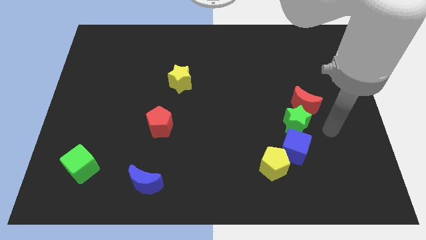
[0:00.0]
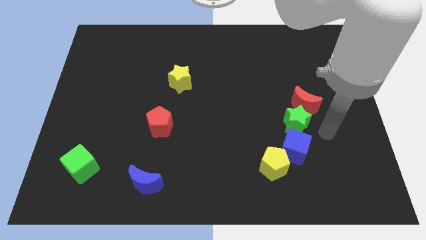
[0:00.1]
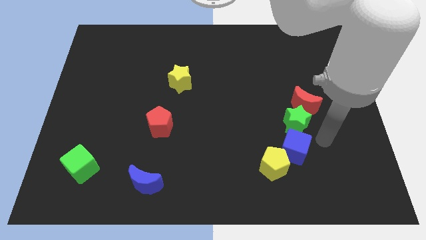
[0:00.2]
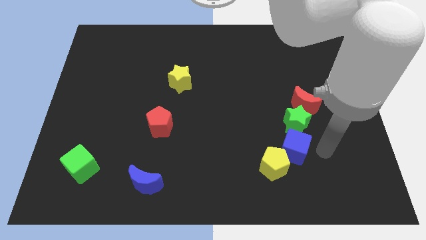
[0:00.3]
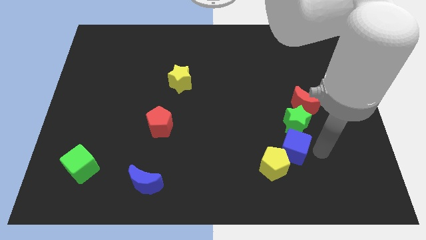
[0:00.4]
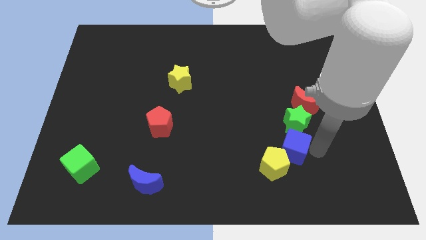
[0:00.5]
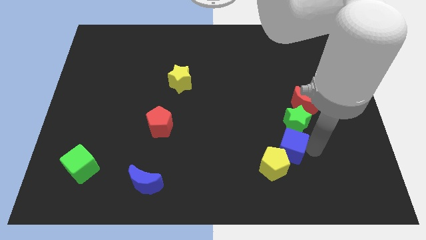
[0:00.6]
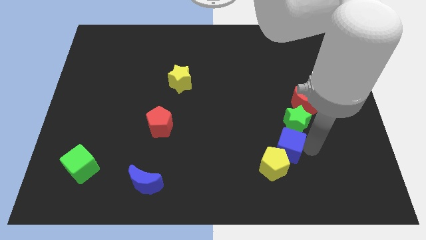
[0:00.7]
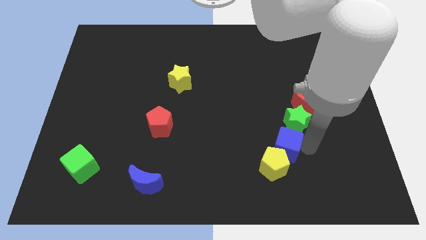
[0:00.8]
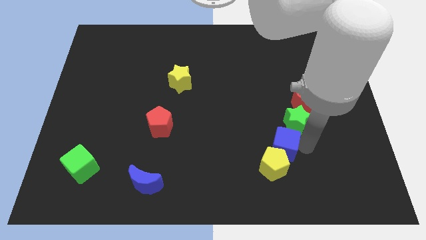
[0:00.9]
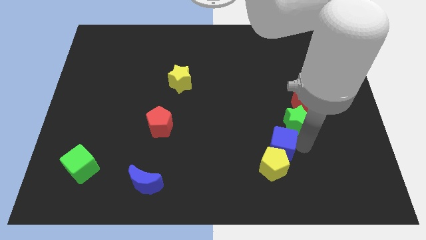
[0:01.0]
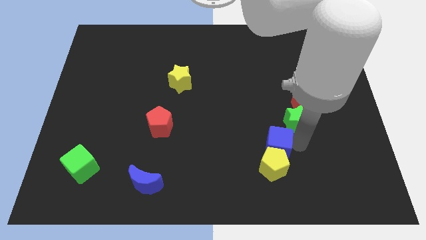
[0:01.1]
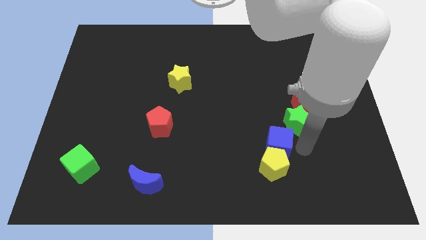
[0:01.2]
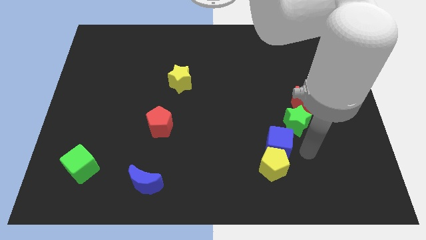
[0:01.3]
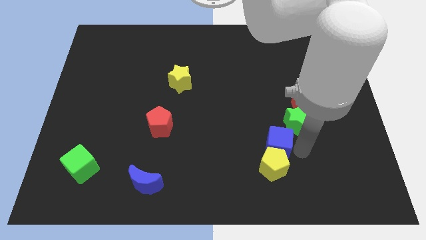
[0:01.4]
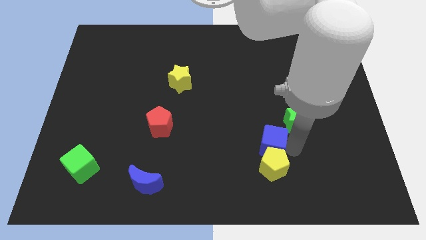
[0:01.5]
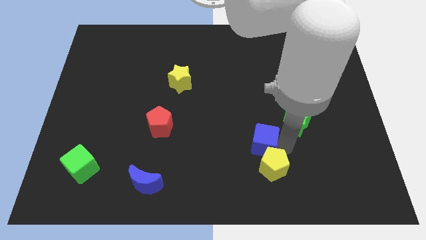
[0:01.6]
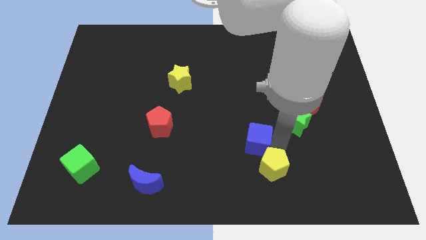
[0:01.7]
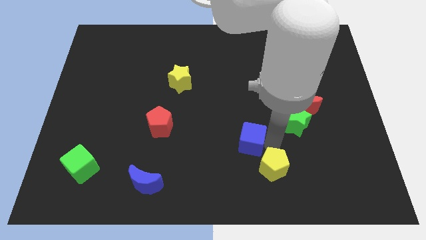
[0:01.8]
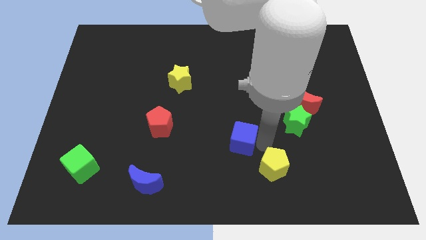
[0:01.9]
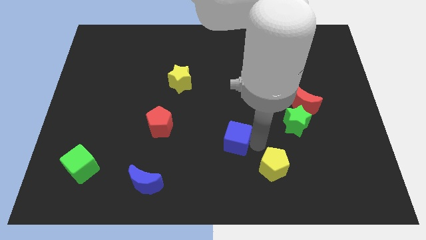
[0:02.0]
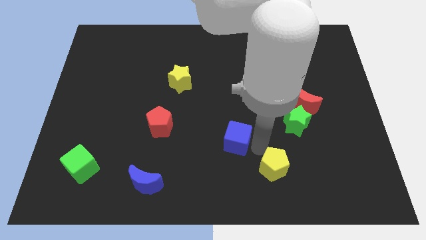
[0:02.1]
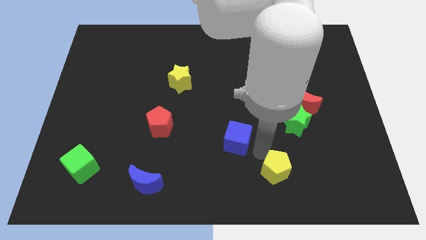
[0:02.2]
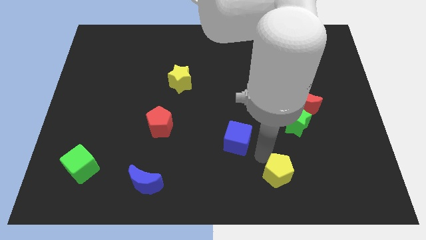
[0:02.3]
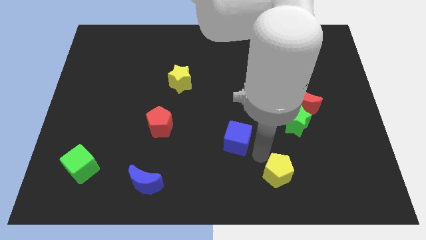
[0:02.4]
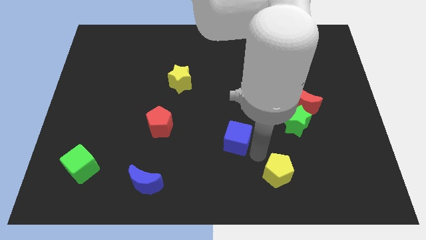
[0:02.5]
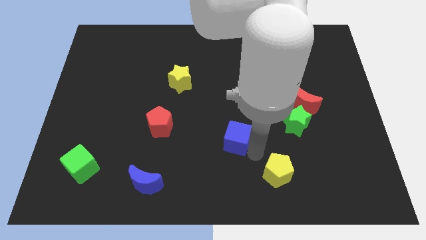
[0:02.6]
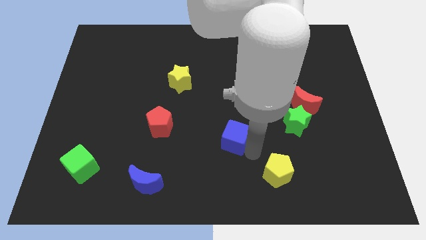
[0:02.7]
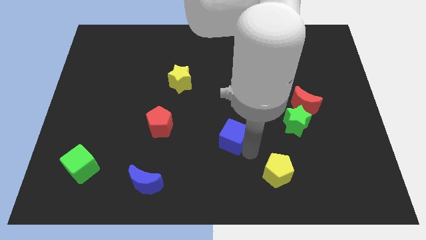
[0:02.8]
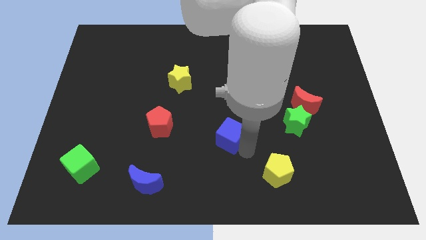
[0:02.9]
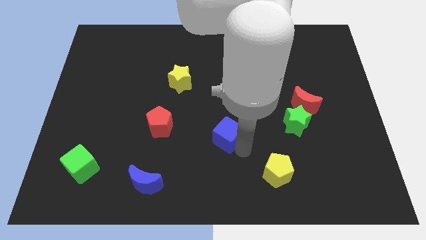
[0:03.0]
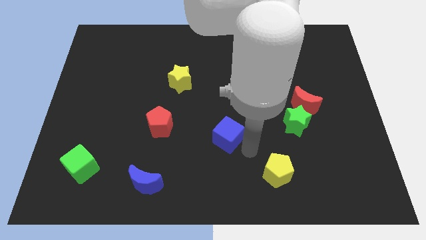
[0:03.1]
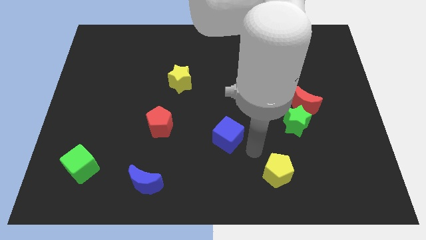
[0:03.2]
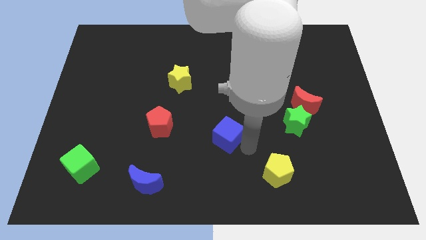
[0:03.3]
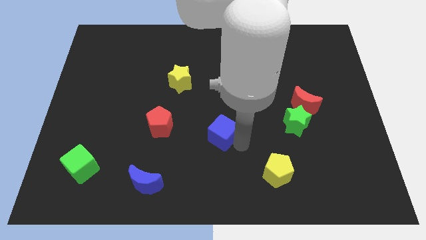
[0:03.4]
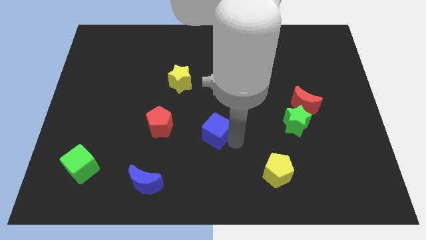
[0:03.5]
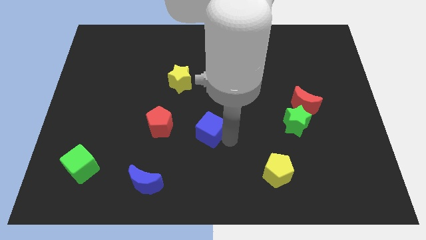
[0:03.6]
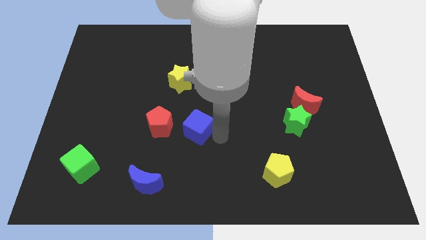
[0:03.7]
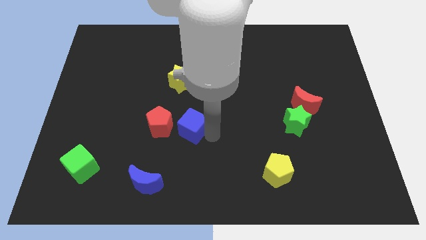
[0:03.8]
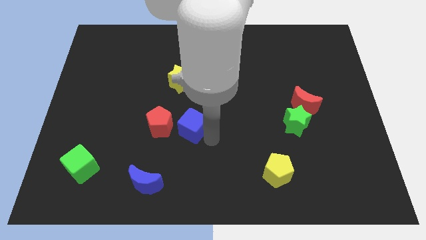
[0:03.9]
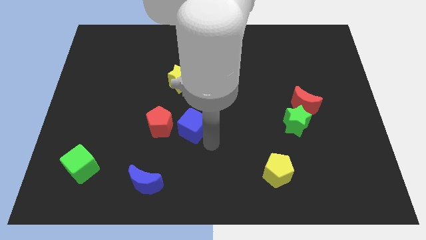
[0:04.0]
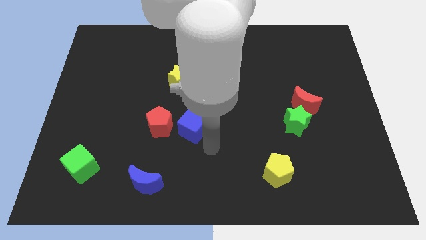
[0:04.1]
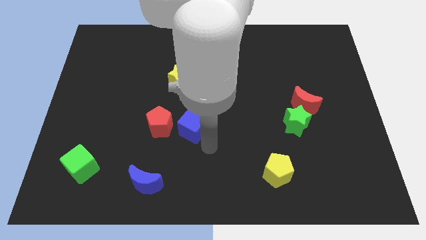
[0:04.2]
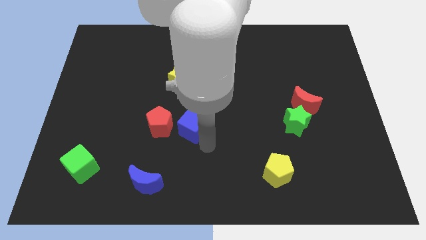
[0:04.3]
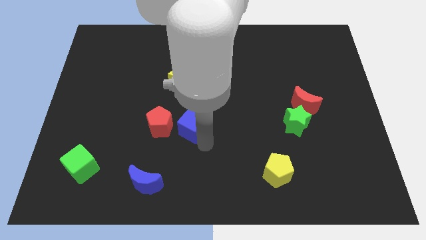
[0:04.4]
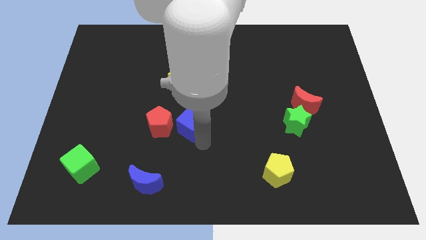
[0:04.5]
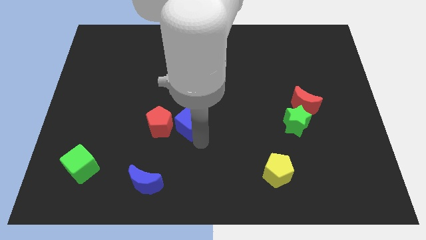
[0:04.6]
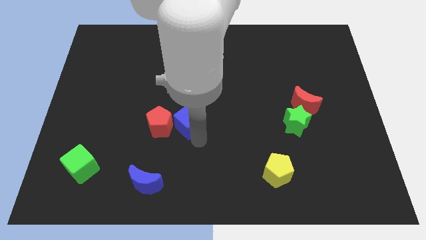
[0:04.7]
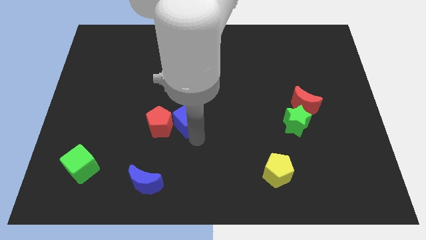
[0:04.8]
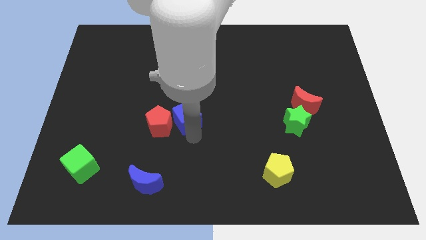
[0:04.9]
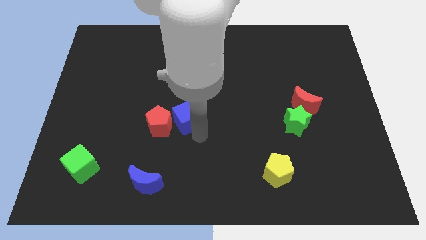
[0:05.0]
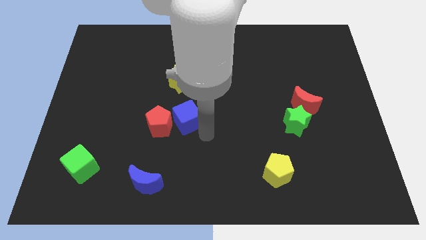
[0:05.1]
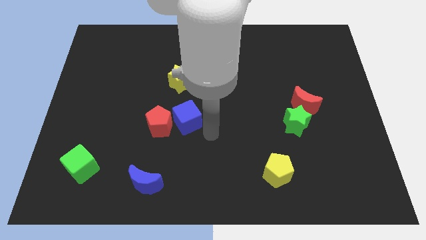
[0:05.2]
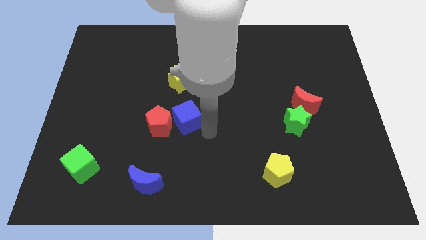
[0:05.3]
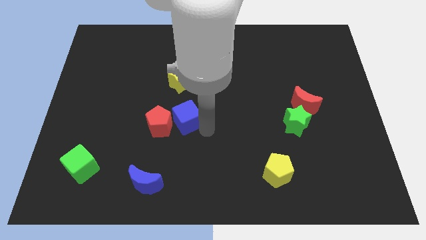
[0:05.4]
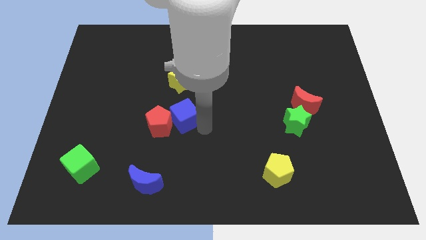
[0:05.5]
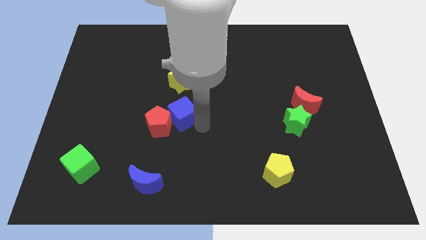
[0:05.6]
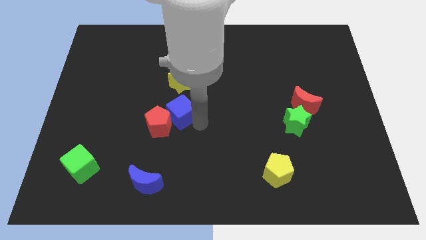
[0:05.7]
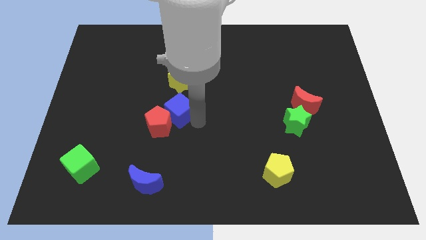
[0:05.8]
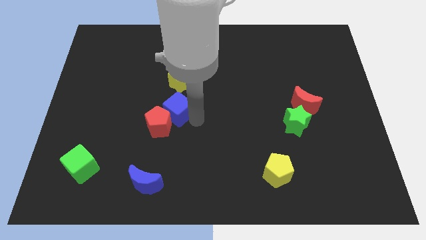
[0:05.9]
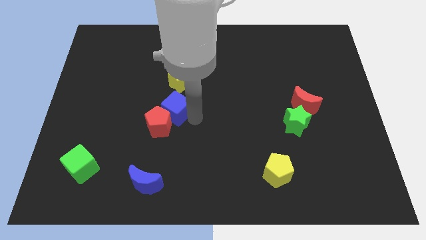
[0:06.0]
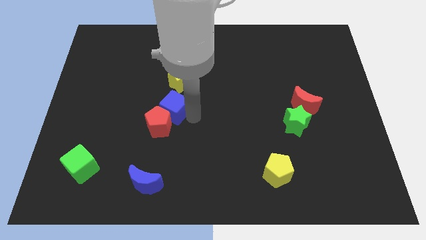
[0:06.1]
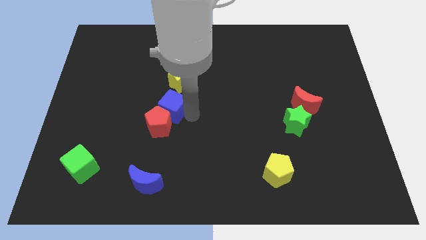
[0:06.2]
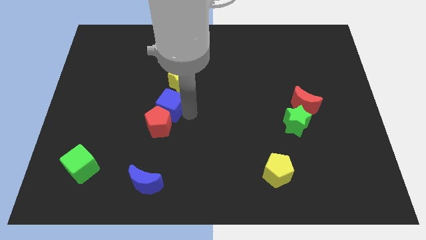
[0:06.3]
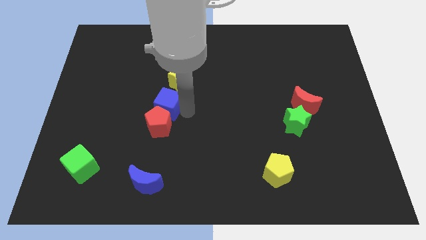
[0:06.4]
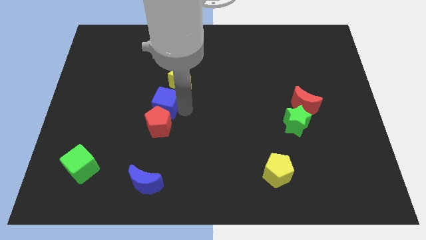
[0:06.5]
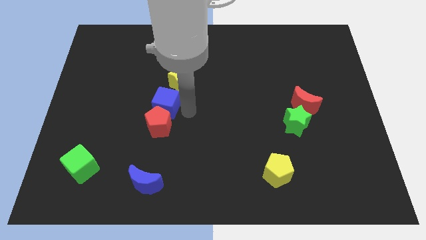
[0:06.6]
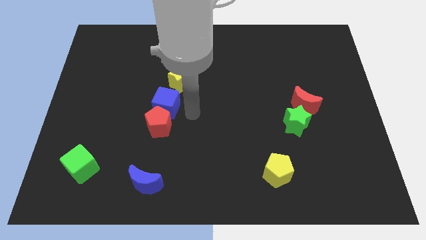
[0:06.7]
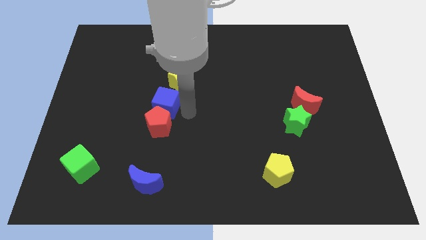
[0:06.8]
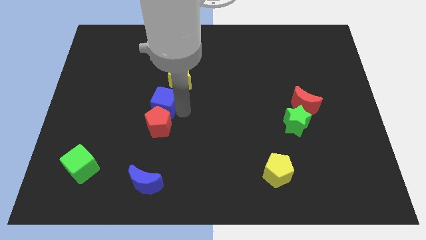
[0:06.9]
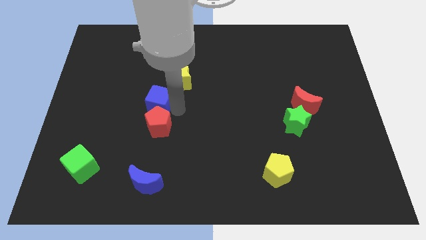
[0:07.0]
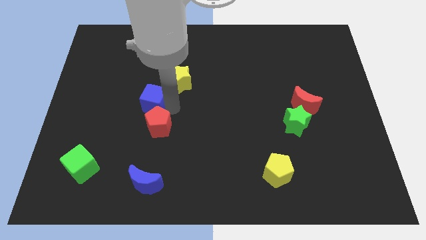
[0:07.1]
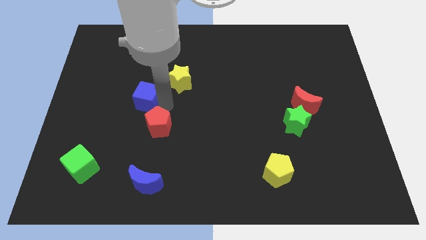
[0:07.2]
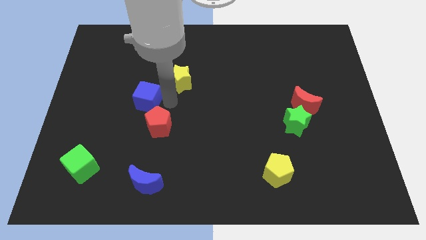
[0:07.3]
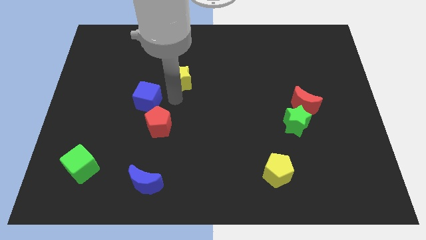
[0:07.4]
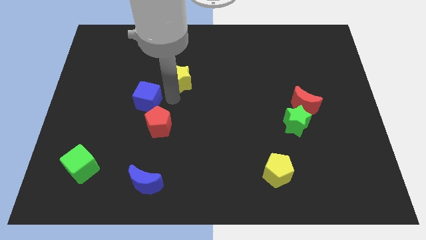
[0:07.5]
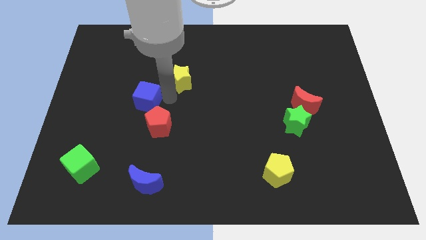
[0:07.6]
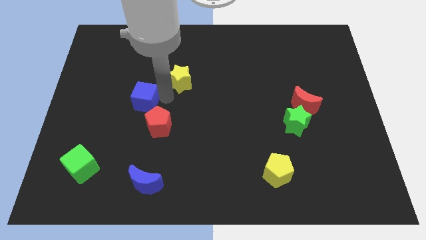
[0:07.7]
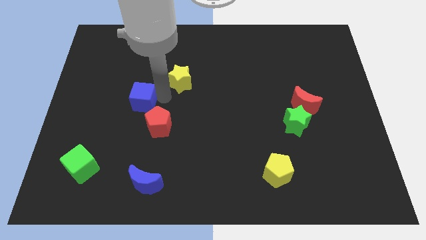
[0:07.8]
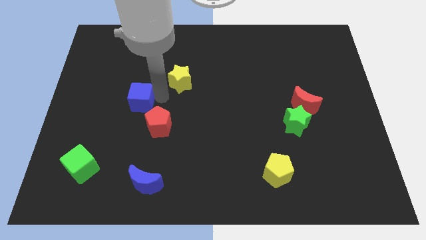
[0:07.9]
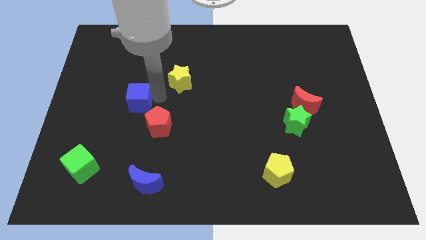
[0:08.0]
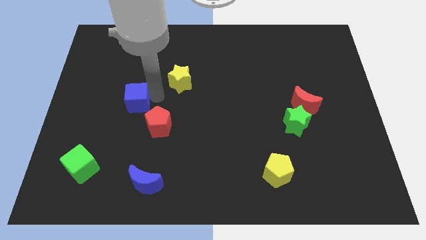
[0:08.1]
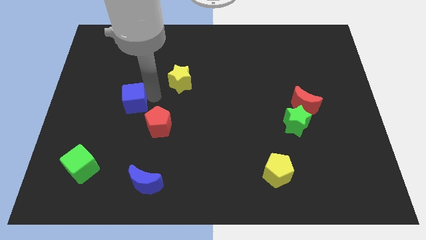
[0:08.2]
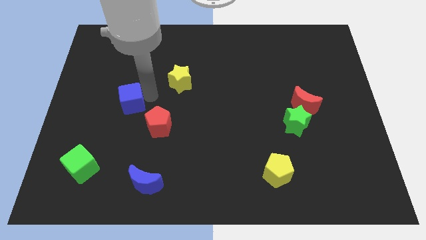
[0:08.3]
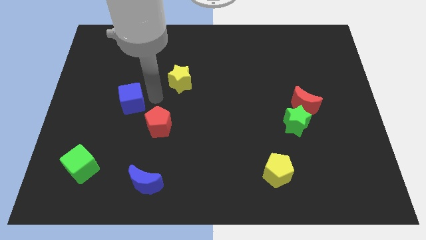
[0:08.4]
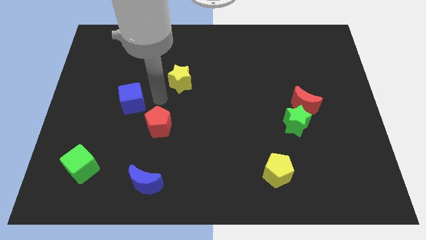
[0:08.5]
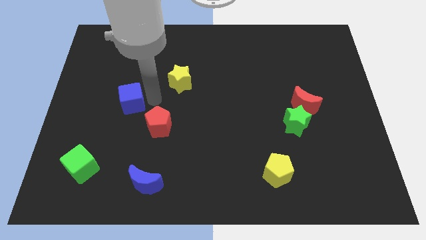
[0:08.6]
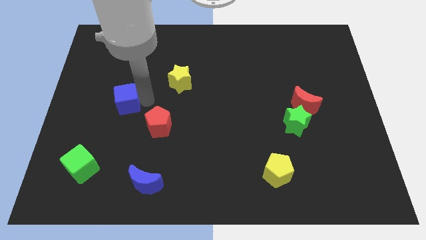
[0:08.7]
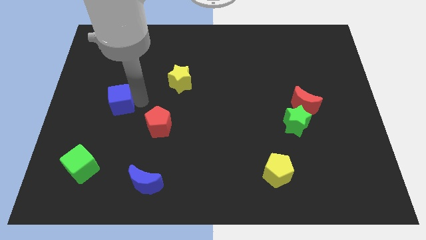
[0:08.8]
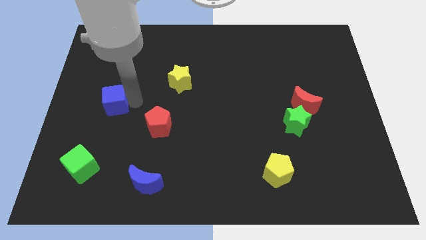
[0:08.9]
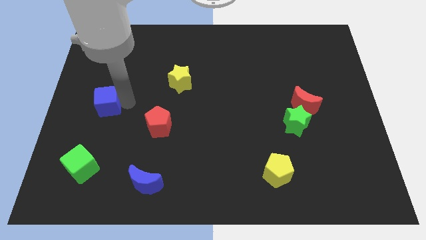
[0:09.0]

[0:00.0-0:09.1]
push the blue cube to the left side
